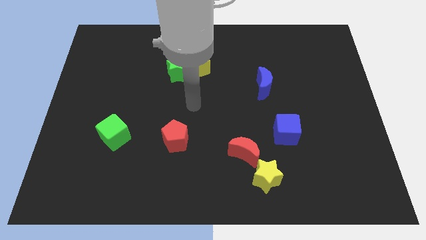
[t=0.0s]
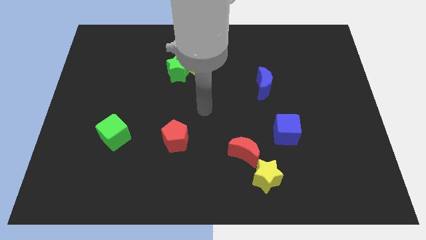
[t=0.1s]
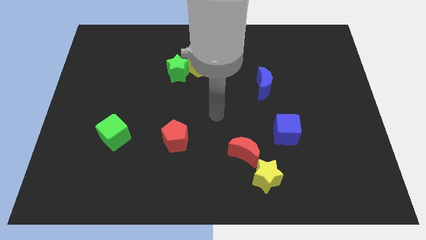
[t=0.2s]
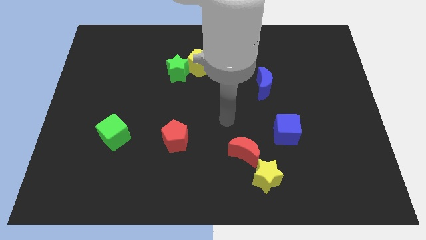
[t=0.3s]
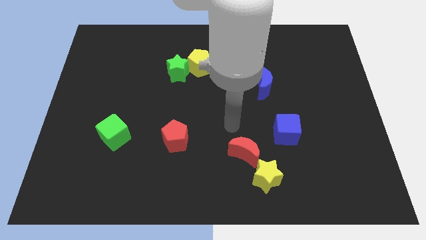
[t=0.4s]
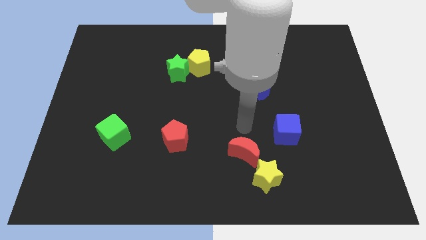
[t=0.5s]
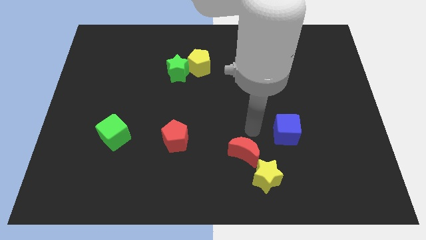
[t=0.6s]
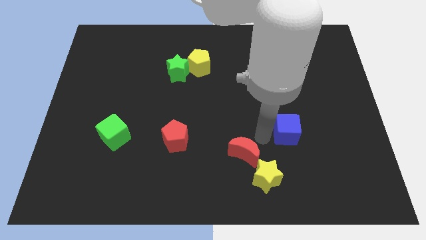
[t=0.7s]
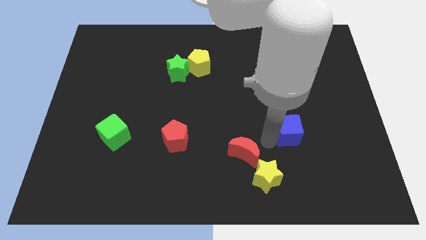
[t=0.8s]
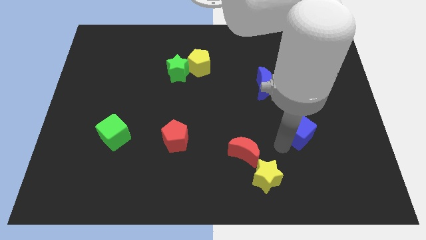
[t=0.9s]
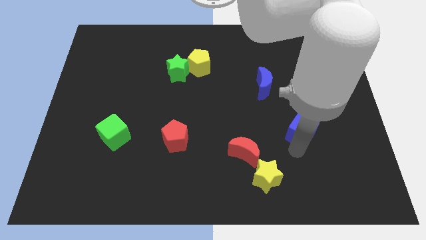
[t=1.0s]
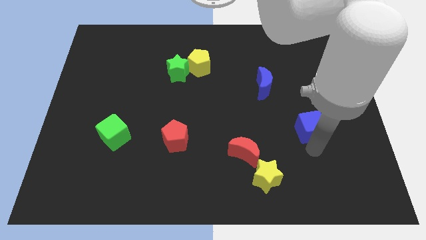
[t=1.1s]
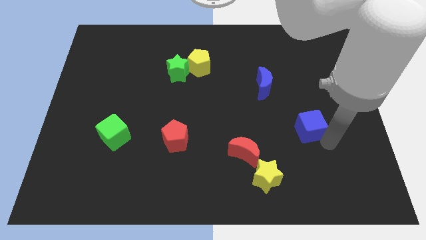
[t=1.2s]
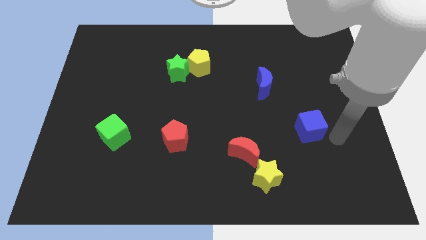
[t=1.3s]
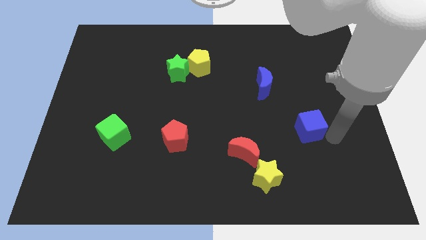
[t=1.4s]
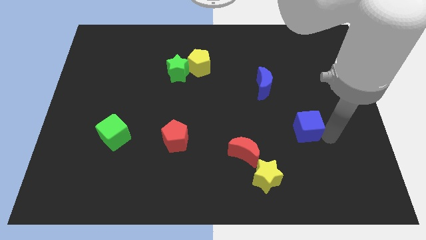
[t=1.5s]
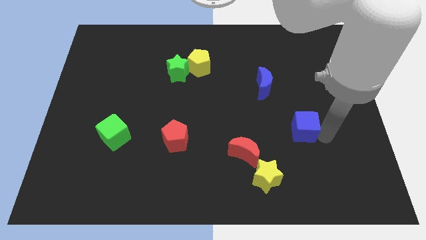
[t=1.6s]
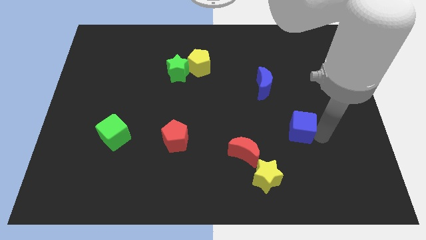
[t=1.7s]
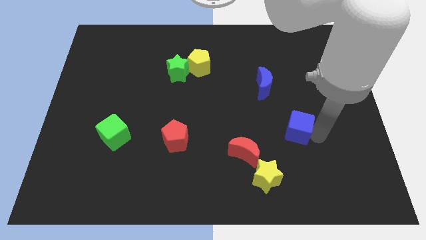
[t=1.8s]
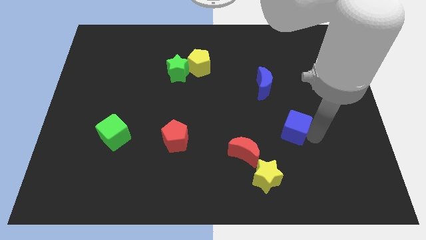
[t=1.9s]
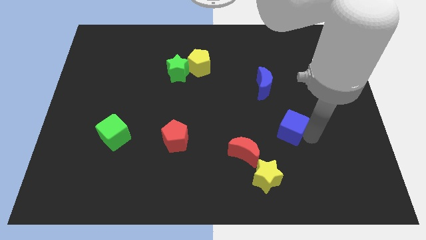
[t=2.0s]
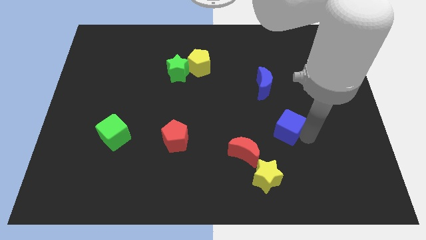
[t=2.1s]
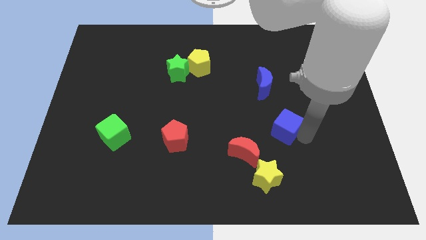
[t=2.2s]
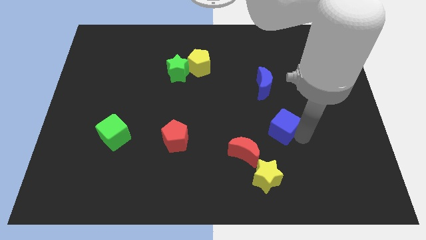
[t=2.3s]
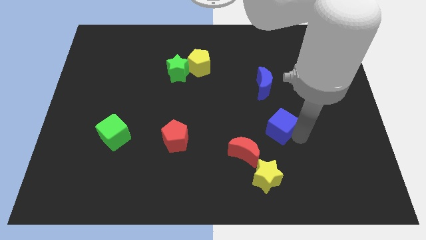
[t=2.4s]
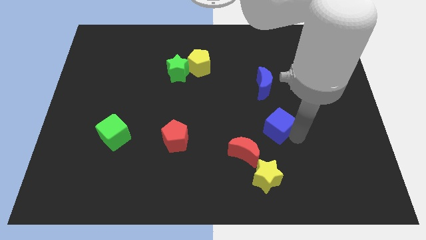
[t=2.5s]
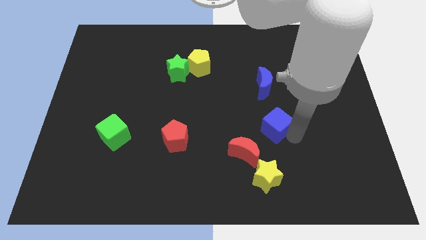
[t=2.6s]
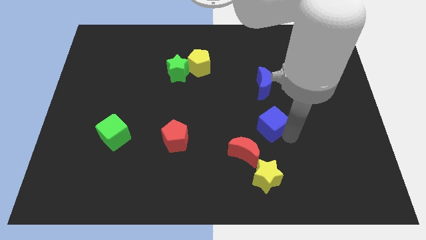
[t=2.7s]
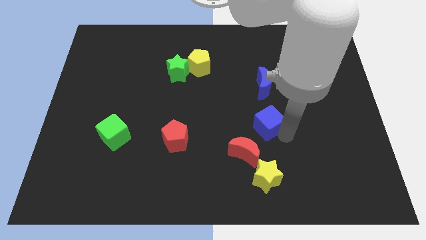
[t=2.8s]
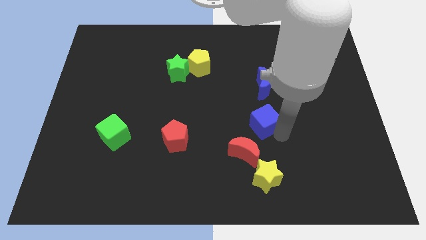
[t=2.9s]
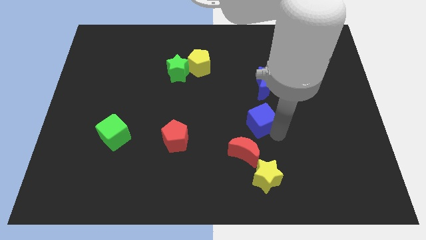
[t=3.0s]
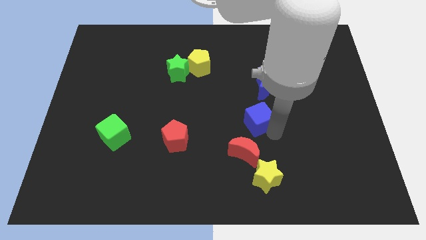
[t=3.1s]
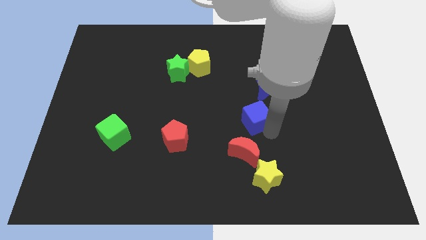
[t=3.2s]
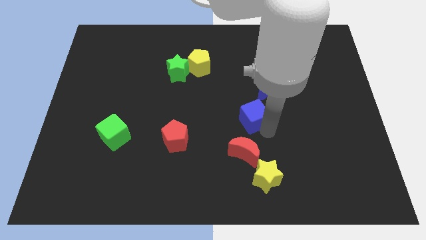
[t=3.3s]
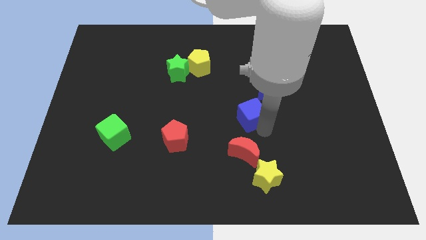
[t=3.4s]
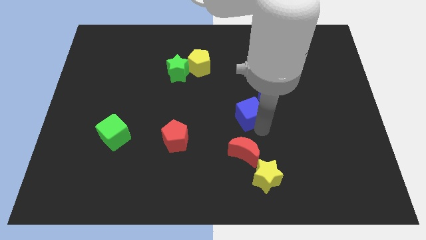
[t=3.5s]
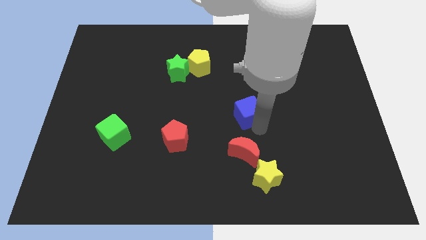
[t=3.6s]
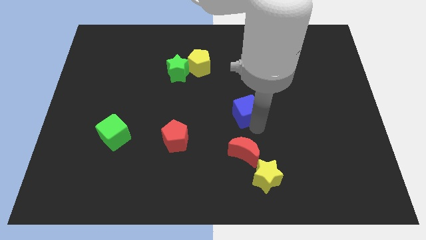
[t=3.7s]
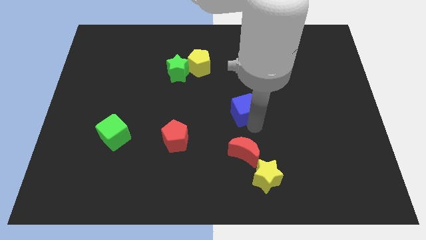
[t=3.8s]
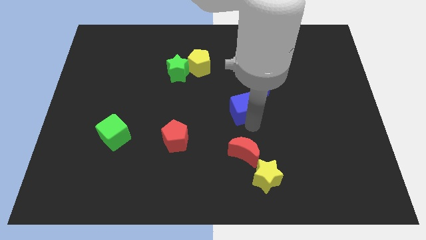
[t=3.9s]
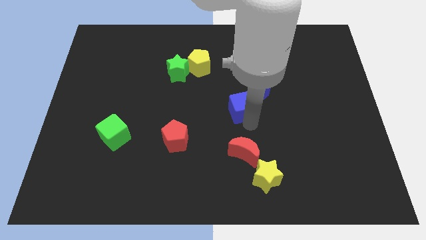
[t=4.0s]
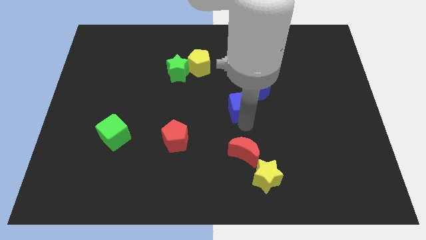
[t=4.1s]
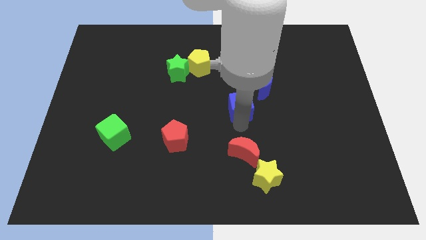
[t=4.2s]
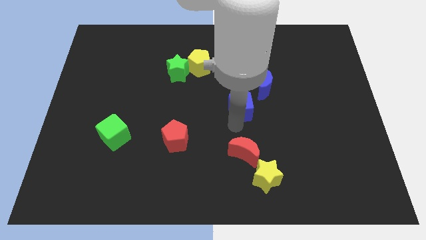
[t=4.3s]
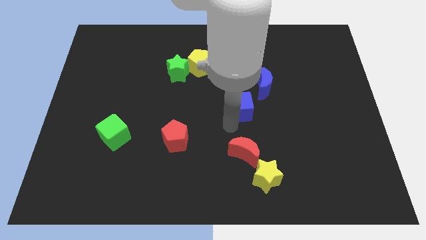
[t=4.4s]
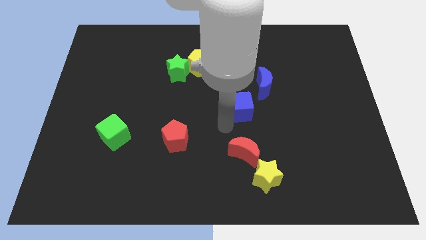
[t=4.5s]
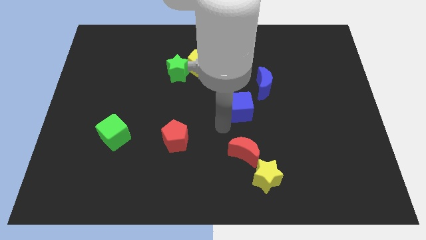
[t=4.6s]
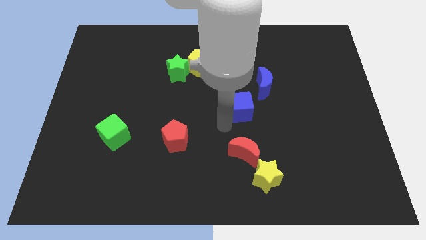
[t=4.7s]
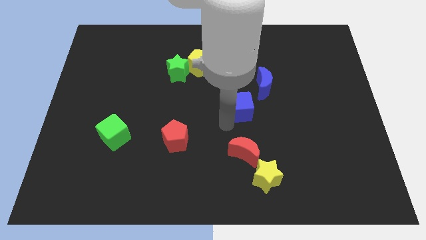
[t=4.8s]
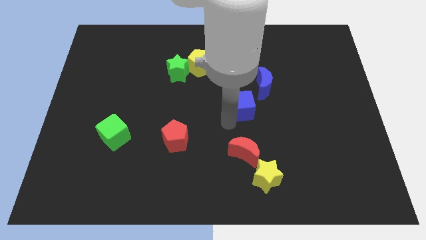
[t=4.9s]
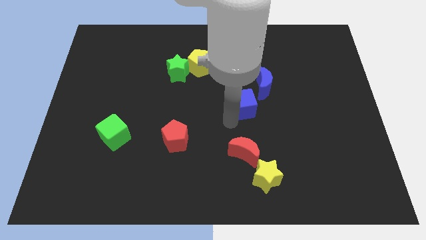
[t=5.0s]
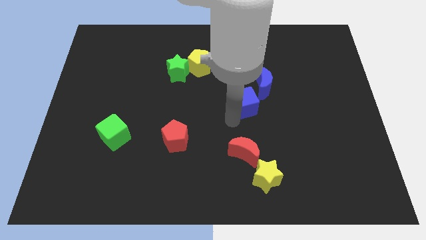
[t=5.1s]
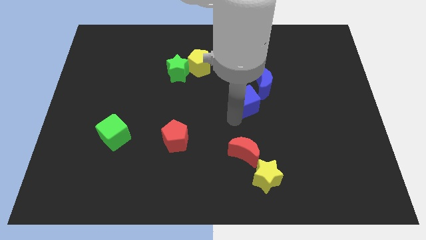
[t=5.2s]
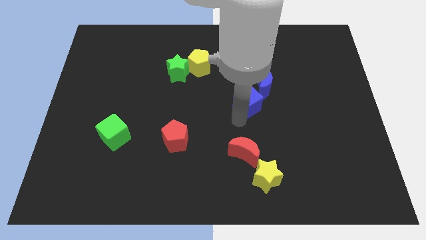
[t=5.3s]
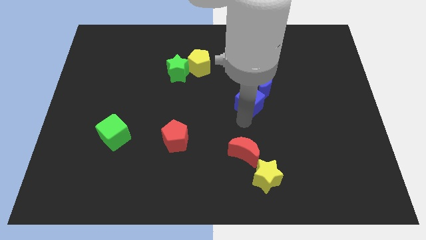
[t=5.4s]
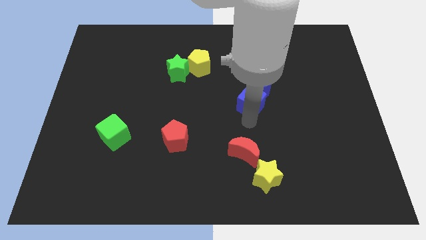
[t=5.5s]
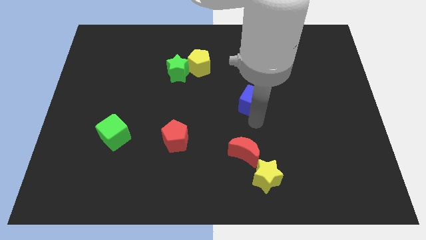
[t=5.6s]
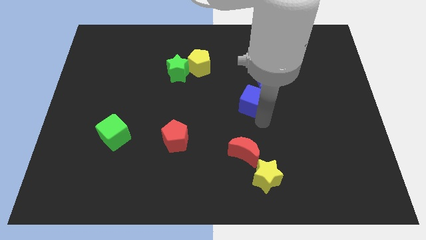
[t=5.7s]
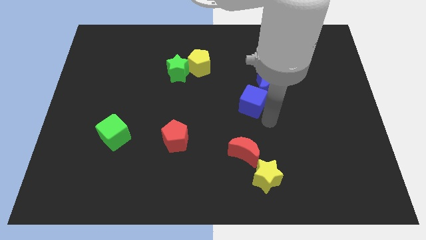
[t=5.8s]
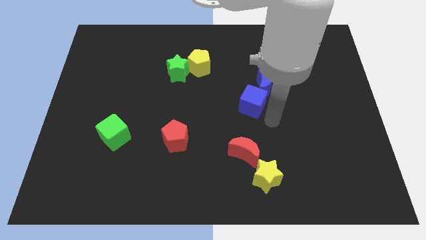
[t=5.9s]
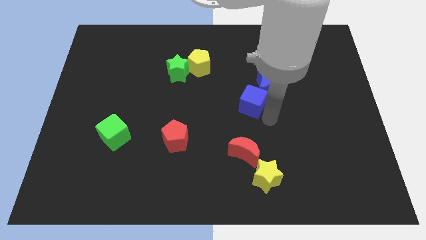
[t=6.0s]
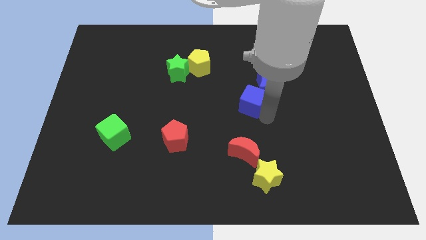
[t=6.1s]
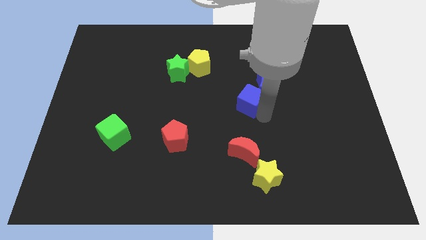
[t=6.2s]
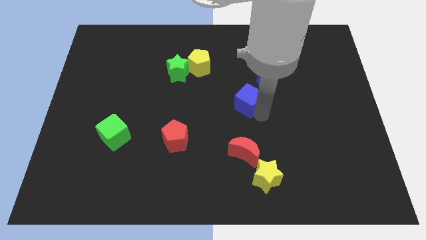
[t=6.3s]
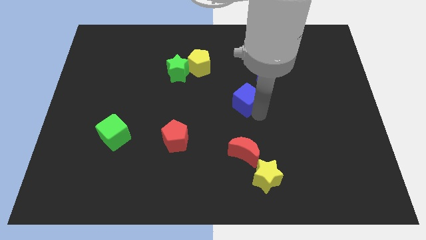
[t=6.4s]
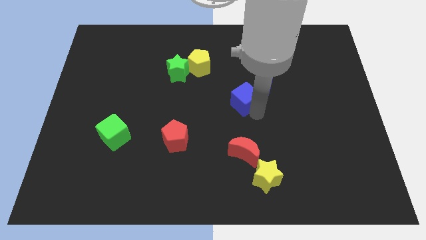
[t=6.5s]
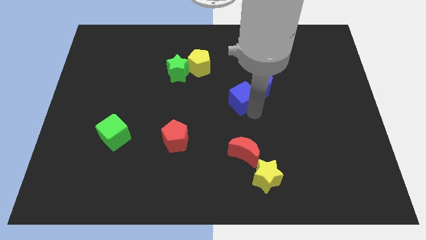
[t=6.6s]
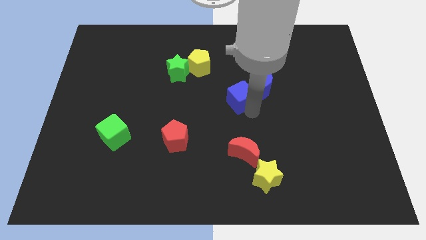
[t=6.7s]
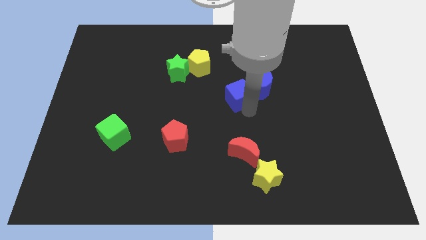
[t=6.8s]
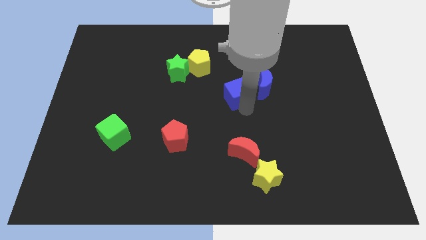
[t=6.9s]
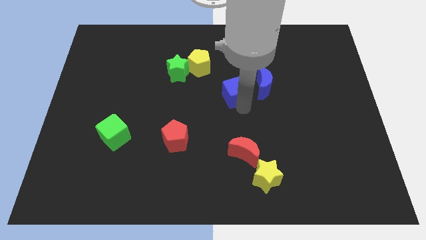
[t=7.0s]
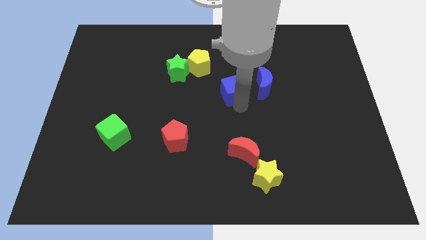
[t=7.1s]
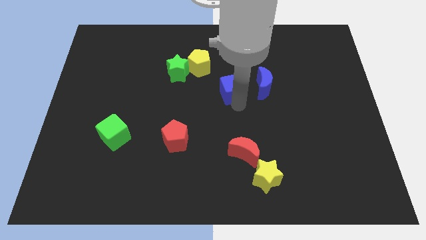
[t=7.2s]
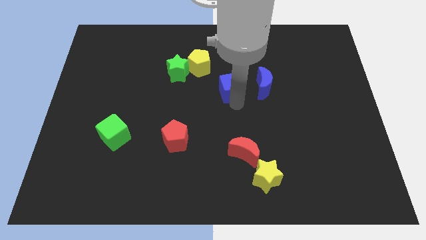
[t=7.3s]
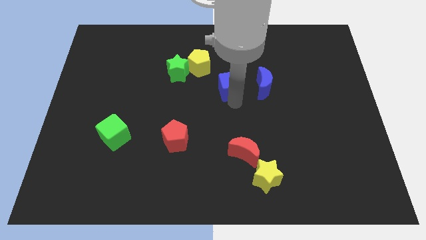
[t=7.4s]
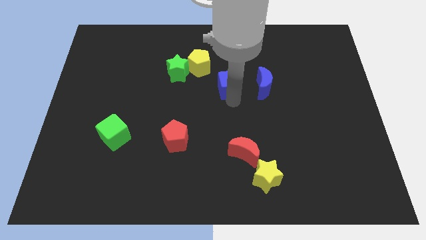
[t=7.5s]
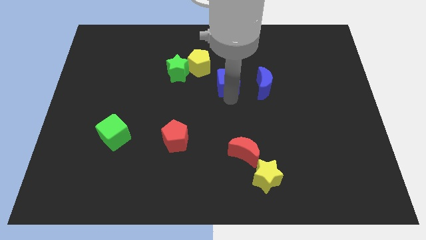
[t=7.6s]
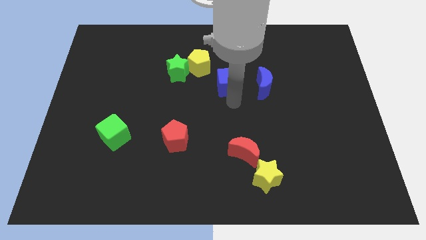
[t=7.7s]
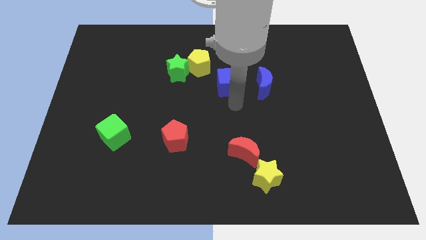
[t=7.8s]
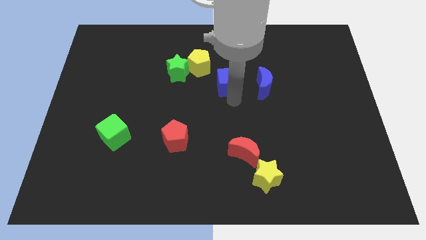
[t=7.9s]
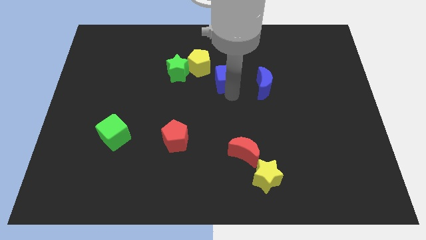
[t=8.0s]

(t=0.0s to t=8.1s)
slide the blue cube up and left

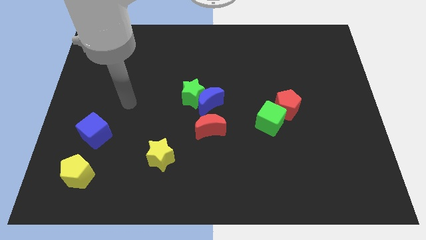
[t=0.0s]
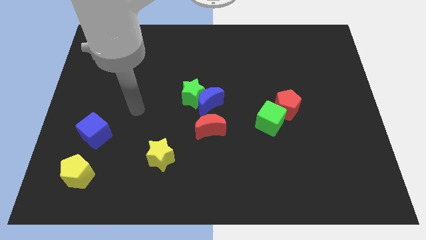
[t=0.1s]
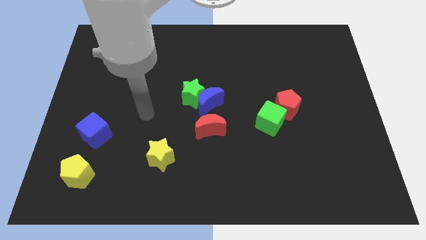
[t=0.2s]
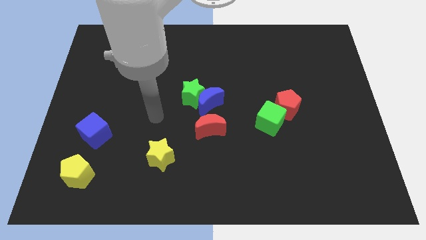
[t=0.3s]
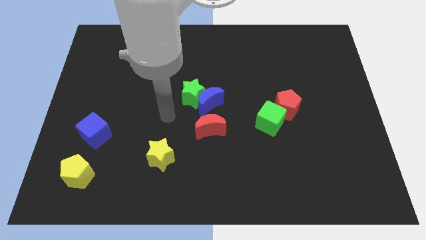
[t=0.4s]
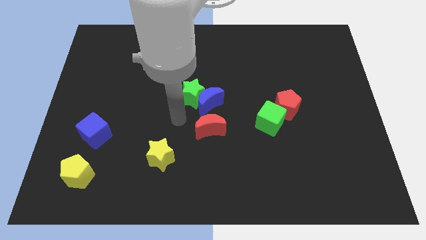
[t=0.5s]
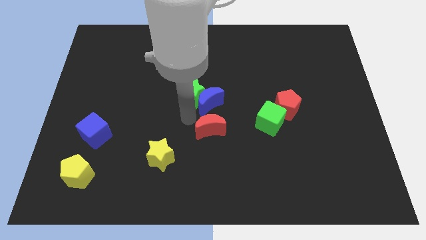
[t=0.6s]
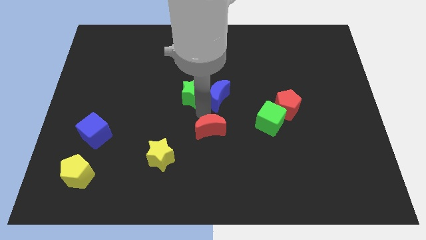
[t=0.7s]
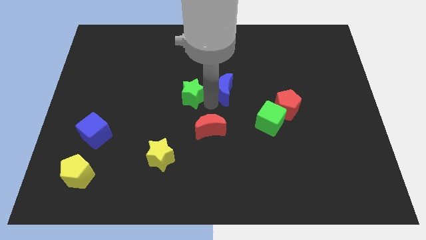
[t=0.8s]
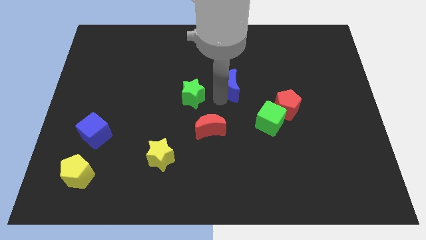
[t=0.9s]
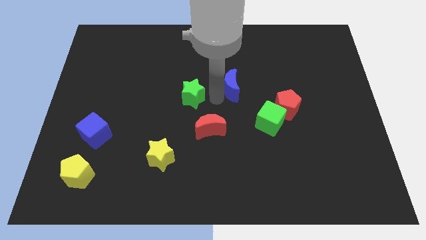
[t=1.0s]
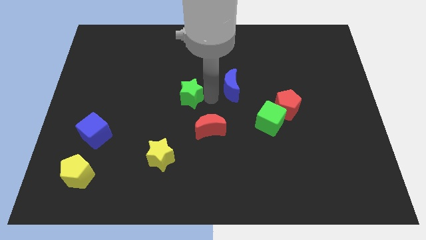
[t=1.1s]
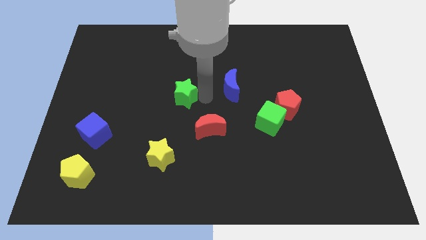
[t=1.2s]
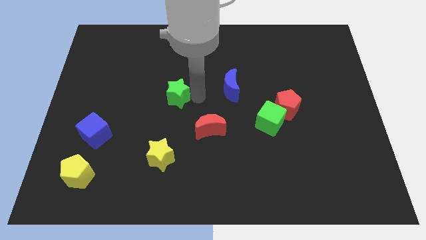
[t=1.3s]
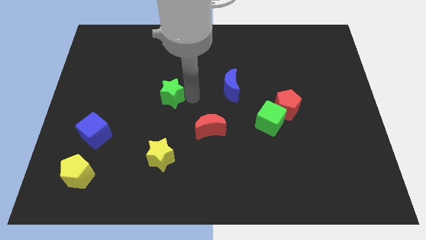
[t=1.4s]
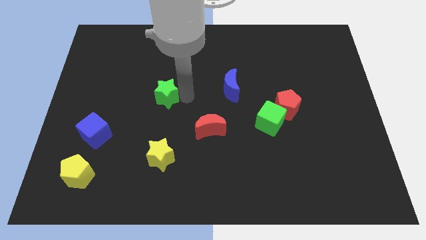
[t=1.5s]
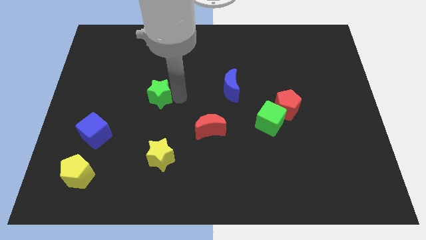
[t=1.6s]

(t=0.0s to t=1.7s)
push the green star to the left a bit
